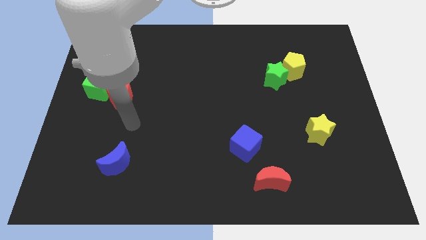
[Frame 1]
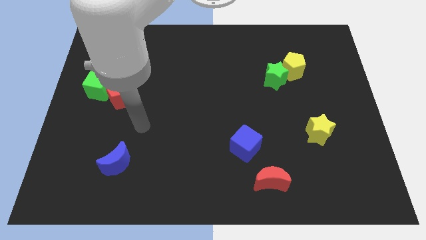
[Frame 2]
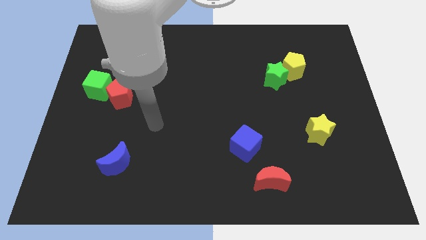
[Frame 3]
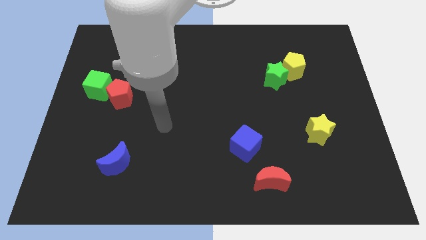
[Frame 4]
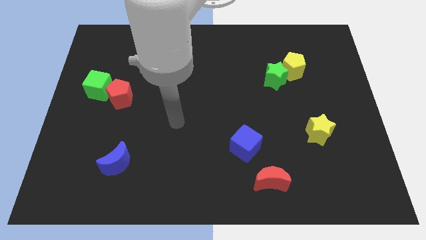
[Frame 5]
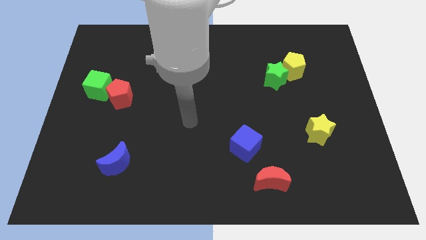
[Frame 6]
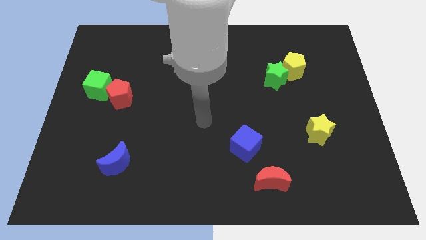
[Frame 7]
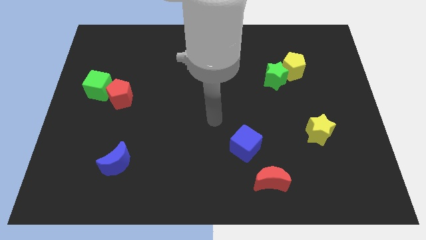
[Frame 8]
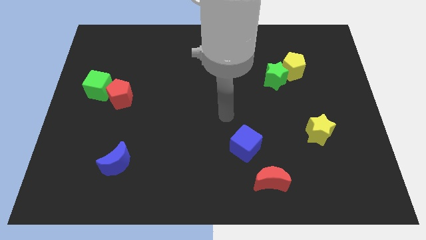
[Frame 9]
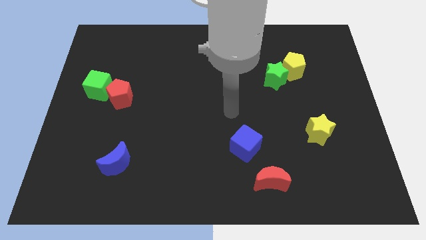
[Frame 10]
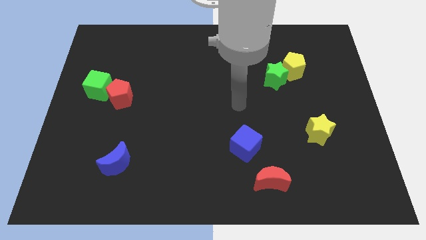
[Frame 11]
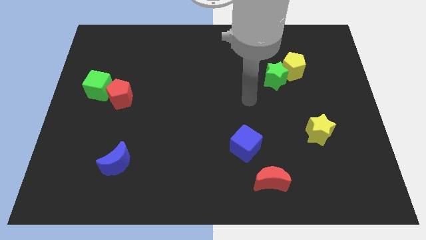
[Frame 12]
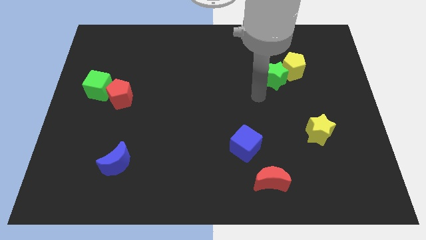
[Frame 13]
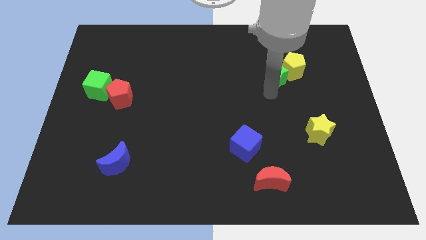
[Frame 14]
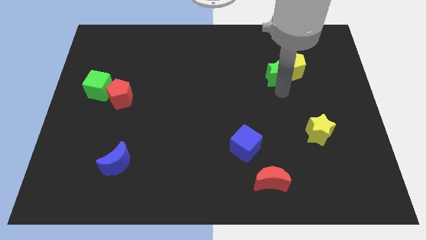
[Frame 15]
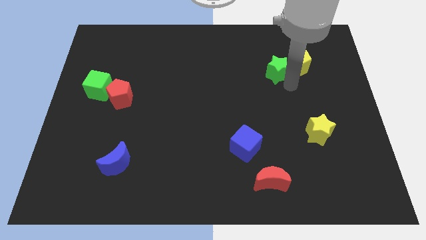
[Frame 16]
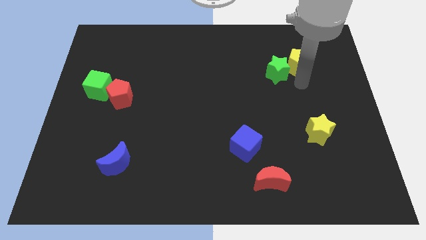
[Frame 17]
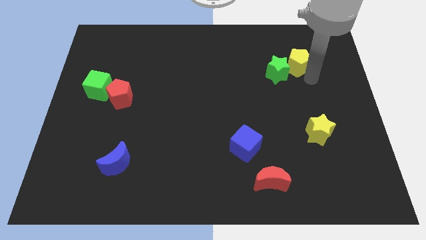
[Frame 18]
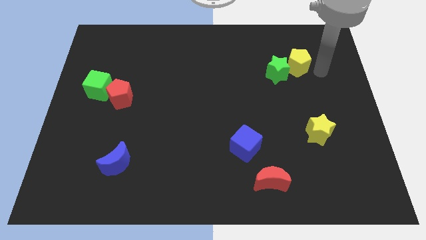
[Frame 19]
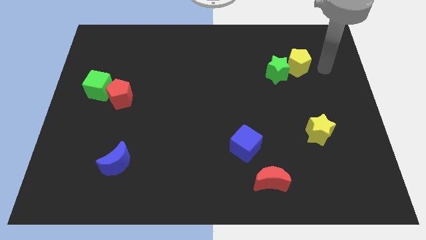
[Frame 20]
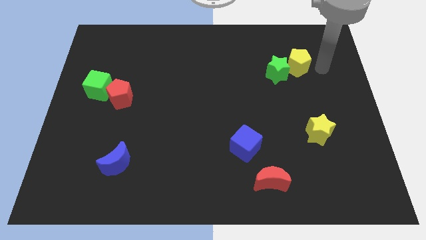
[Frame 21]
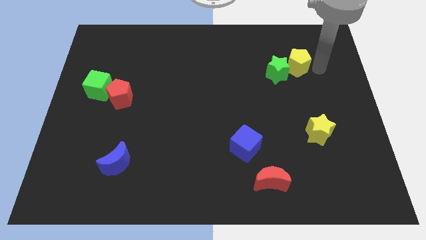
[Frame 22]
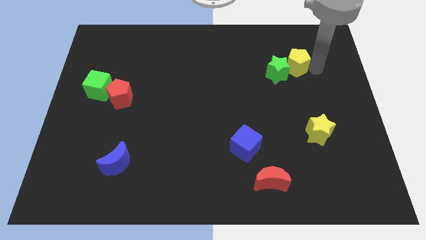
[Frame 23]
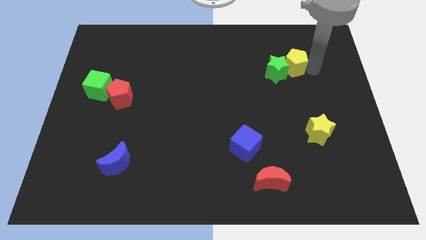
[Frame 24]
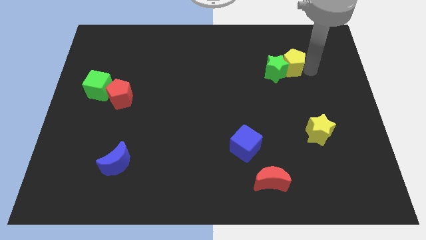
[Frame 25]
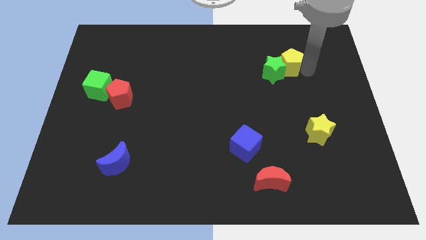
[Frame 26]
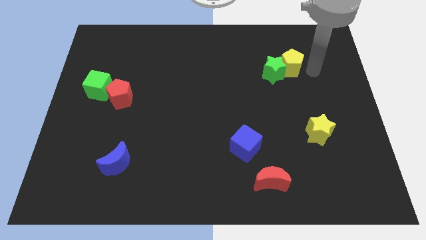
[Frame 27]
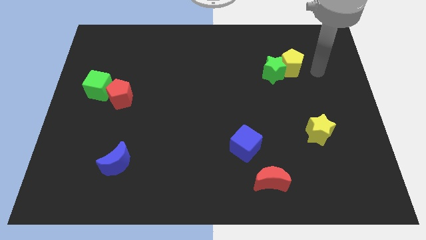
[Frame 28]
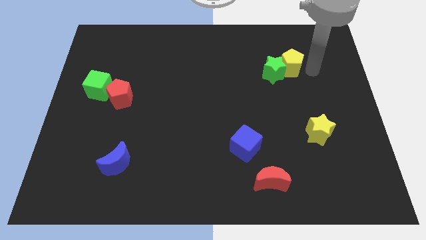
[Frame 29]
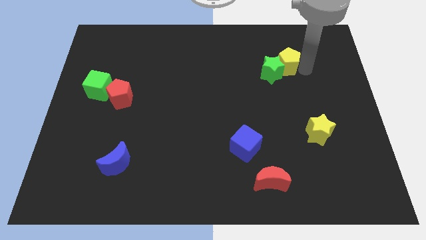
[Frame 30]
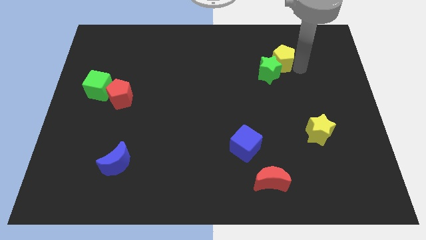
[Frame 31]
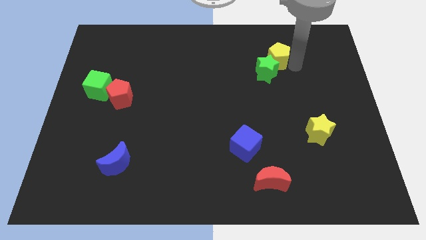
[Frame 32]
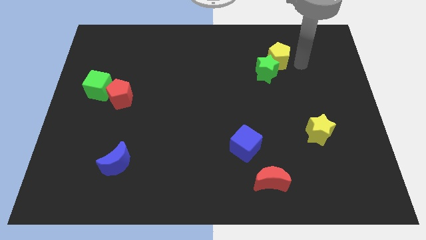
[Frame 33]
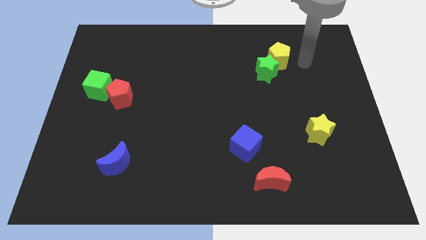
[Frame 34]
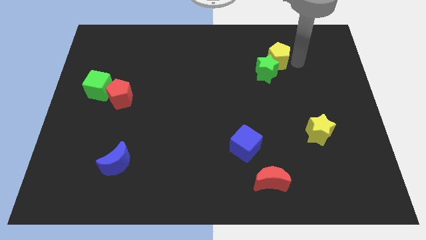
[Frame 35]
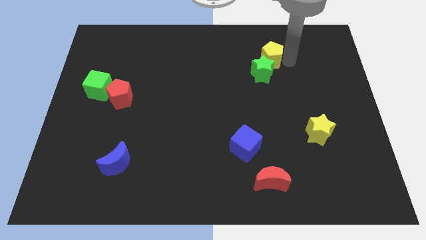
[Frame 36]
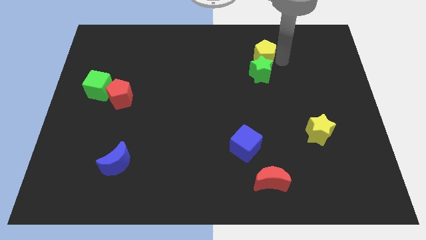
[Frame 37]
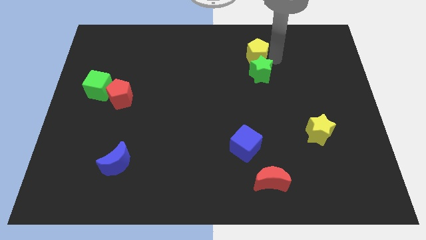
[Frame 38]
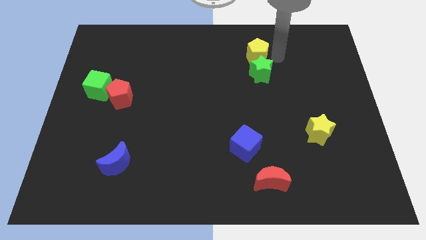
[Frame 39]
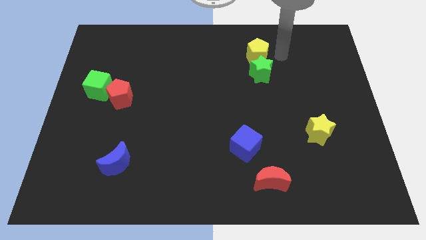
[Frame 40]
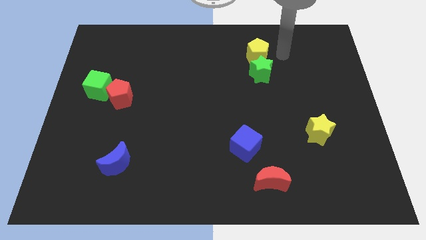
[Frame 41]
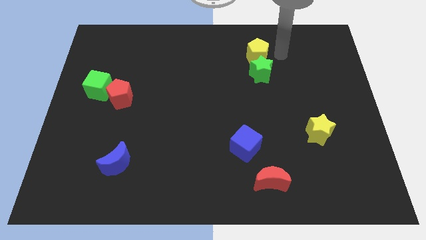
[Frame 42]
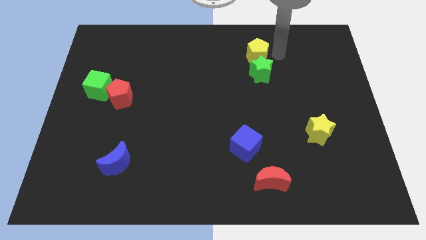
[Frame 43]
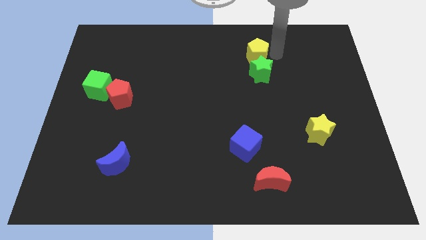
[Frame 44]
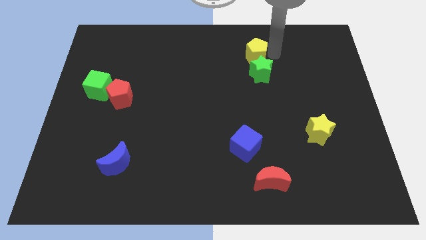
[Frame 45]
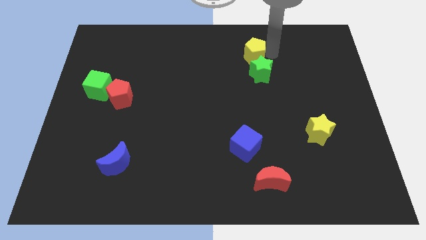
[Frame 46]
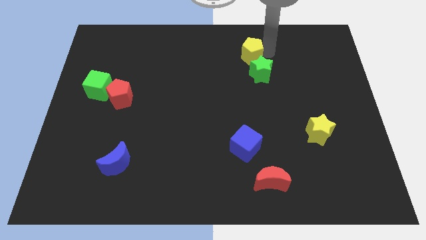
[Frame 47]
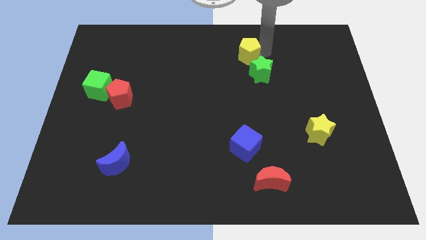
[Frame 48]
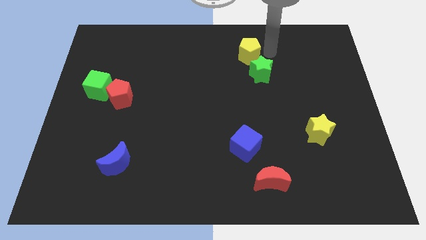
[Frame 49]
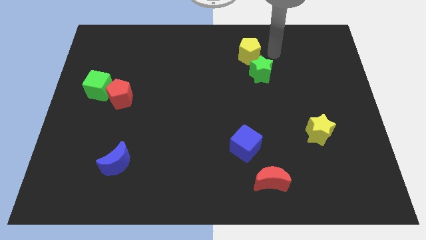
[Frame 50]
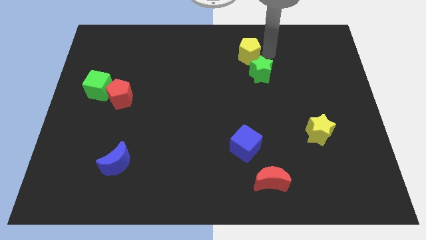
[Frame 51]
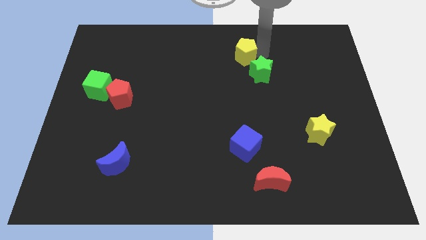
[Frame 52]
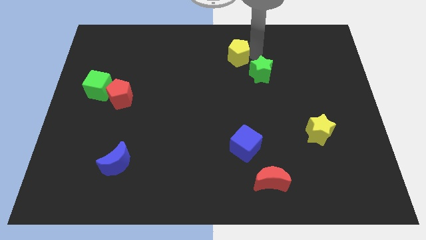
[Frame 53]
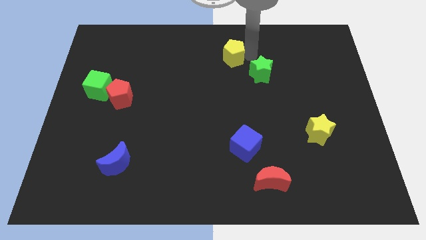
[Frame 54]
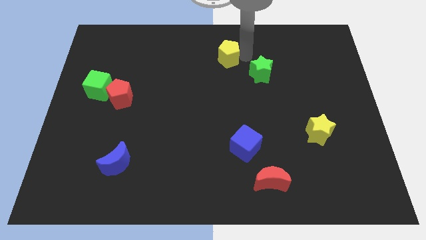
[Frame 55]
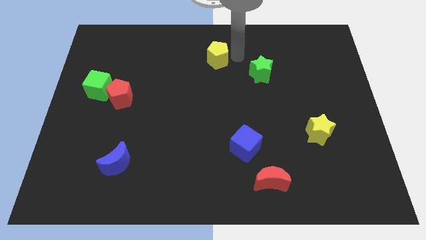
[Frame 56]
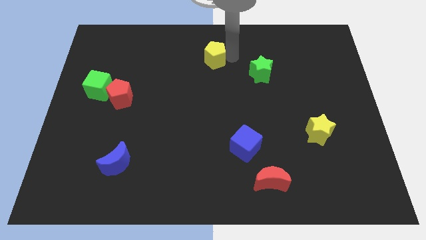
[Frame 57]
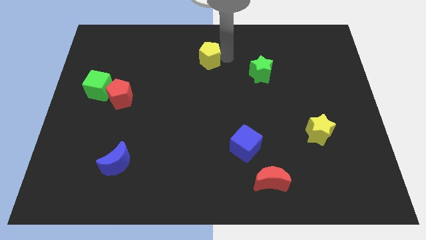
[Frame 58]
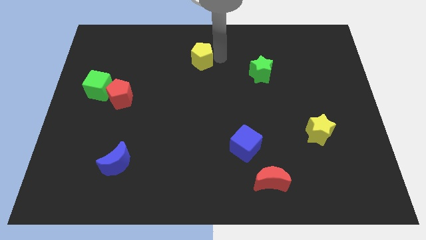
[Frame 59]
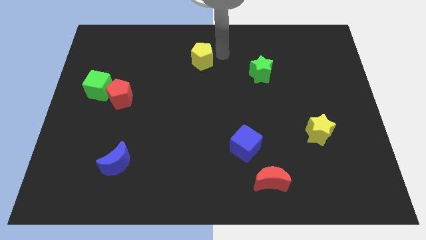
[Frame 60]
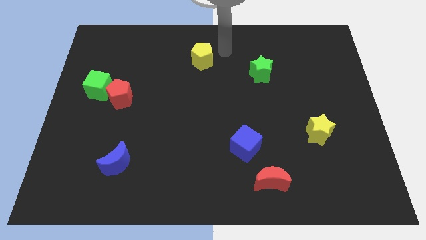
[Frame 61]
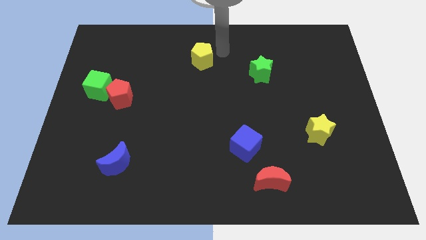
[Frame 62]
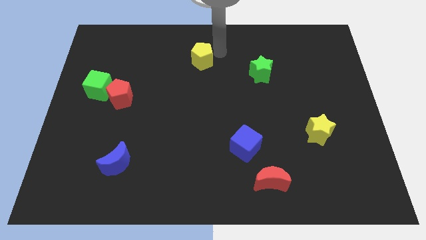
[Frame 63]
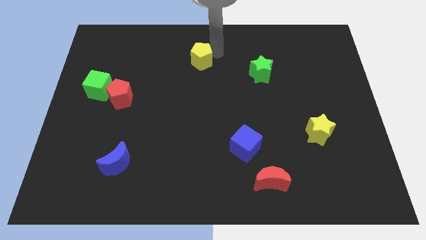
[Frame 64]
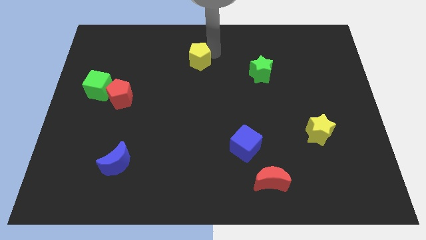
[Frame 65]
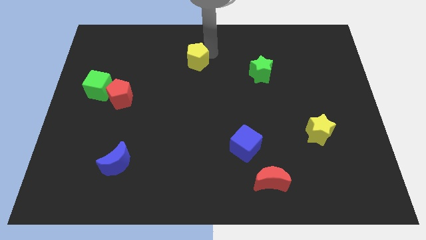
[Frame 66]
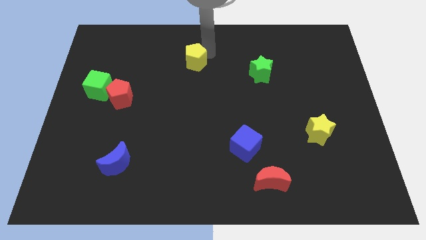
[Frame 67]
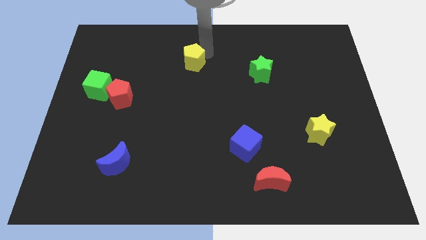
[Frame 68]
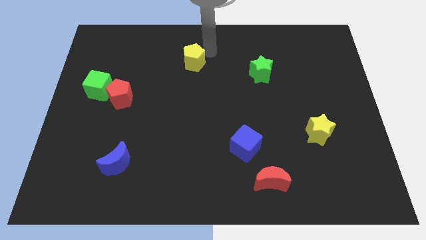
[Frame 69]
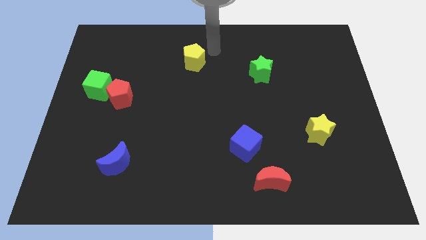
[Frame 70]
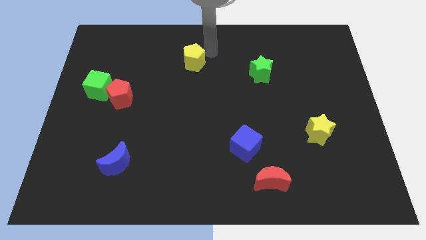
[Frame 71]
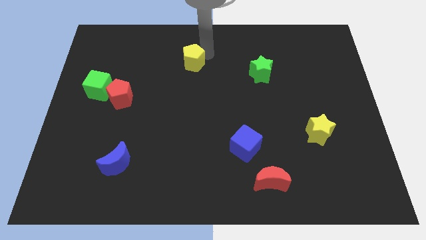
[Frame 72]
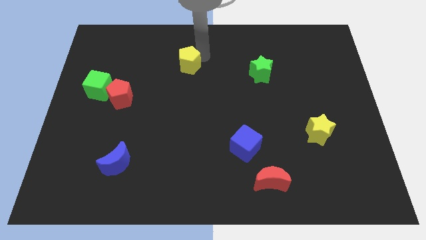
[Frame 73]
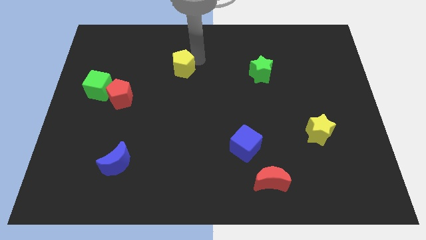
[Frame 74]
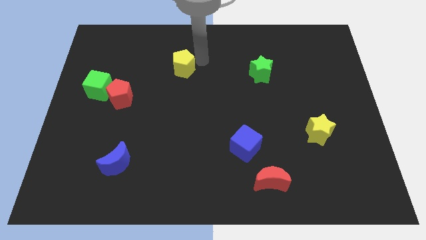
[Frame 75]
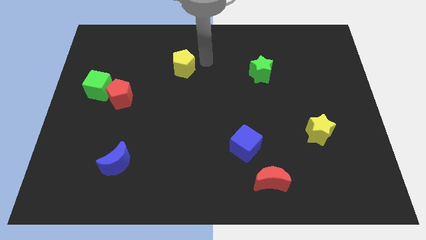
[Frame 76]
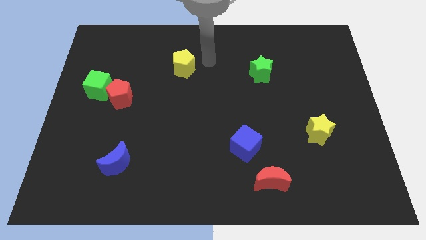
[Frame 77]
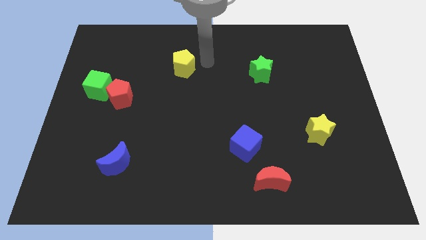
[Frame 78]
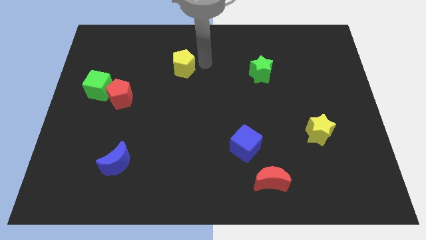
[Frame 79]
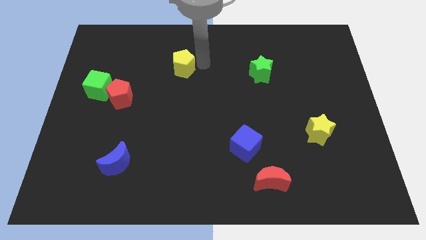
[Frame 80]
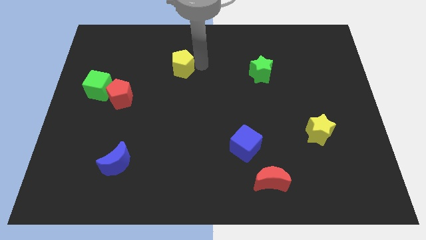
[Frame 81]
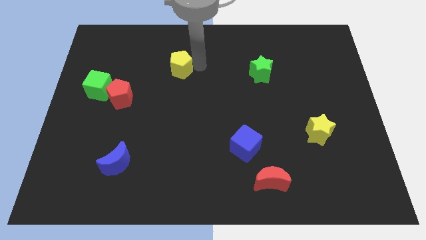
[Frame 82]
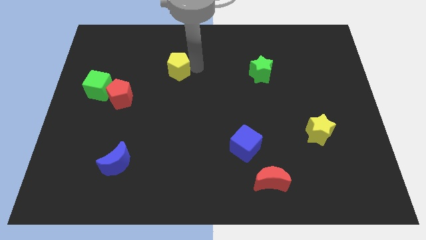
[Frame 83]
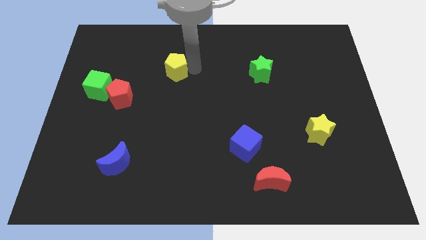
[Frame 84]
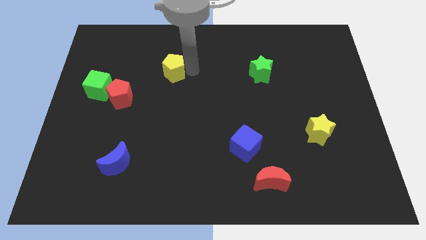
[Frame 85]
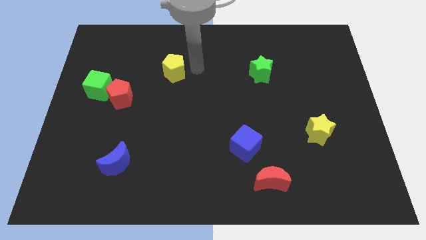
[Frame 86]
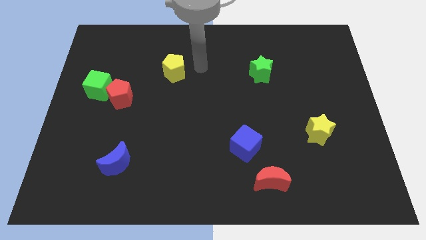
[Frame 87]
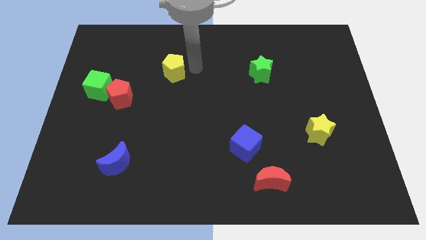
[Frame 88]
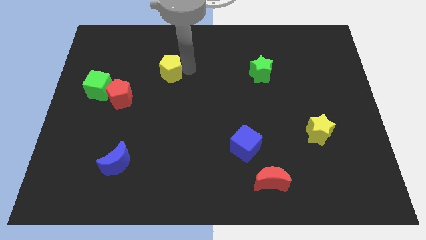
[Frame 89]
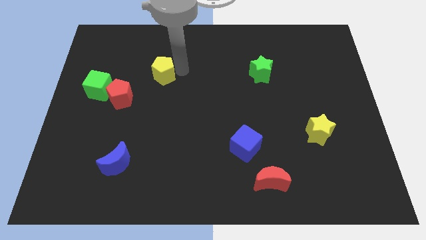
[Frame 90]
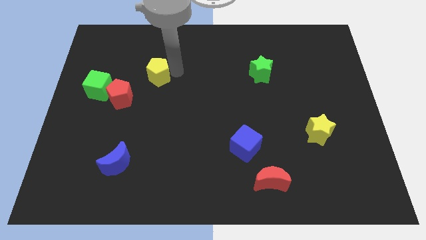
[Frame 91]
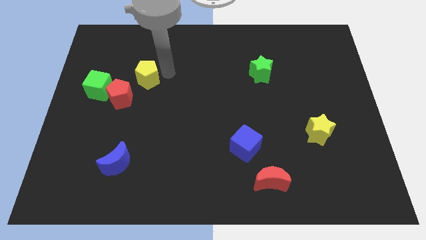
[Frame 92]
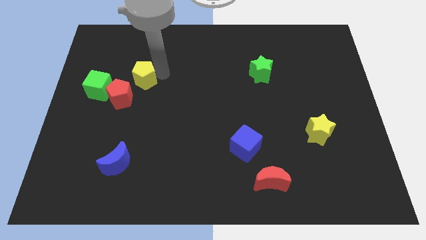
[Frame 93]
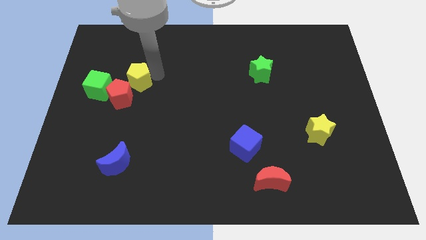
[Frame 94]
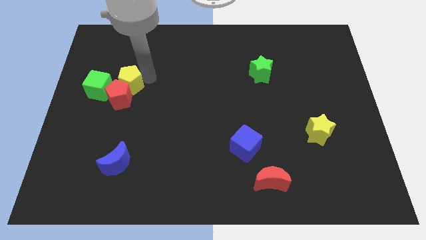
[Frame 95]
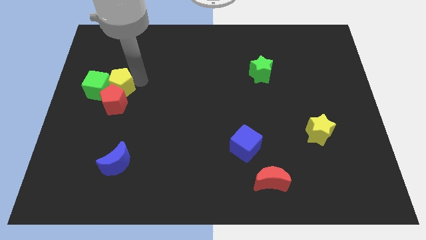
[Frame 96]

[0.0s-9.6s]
push the yellow pentagon to the green cube
